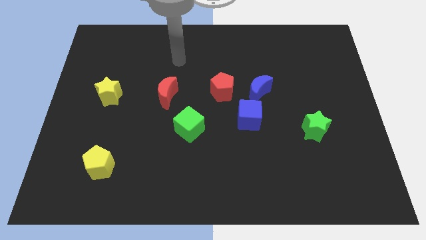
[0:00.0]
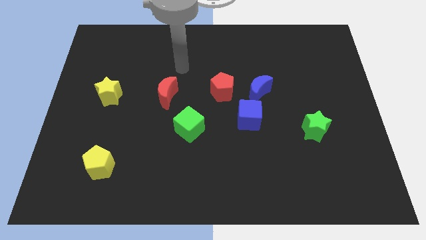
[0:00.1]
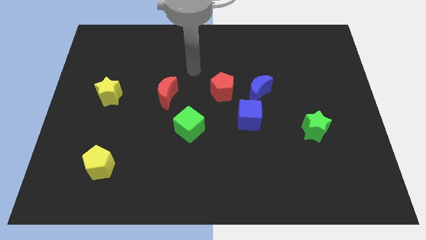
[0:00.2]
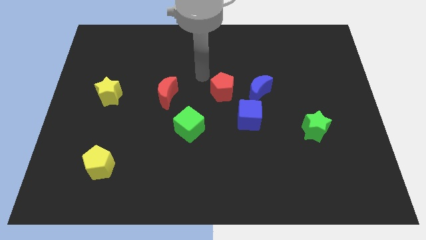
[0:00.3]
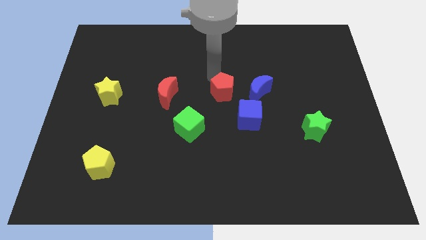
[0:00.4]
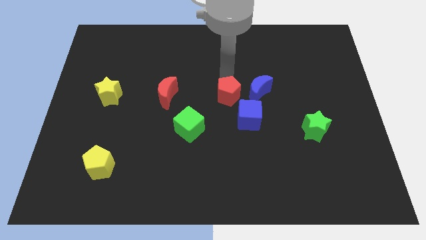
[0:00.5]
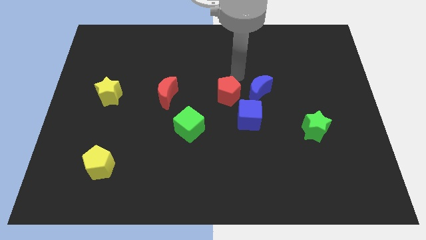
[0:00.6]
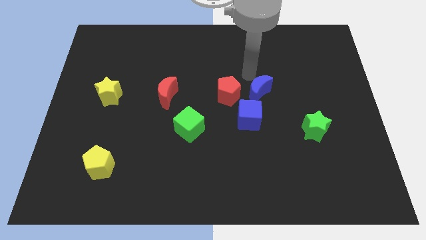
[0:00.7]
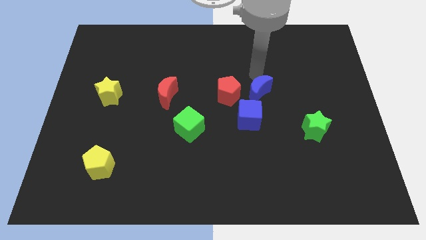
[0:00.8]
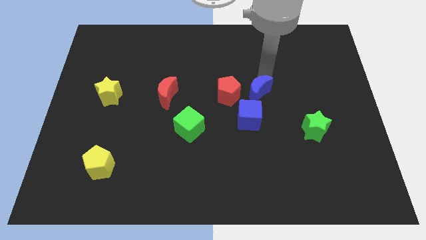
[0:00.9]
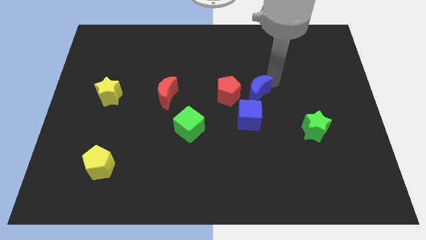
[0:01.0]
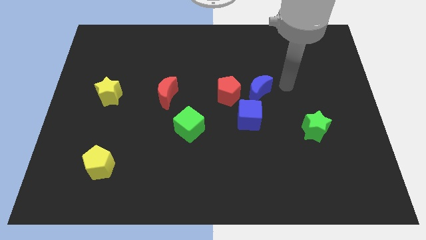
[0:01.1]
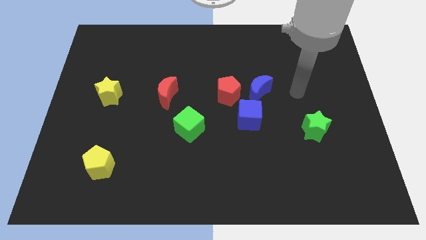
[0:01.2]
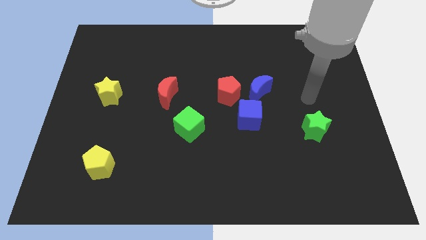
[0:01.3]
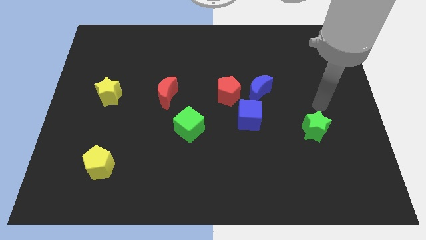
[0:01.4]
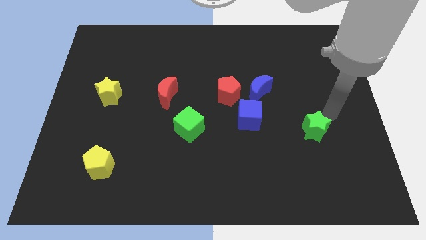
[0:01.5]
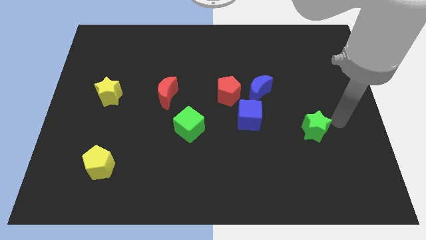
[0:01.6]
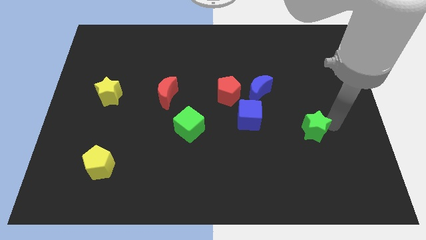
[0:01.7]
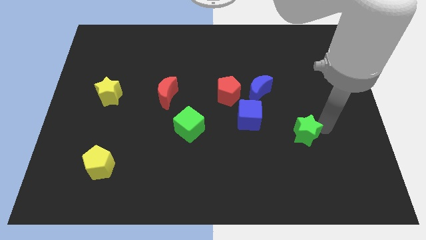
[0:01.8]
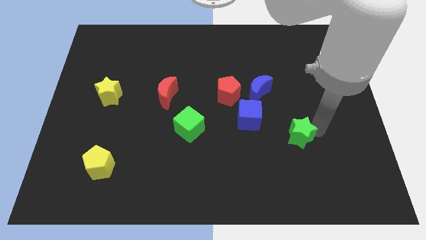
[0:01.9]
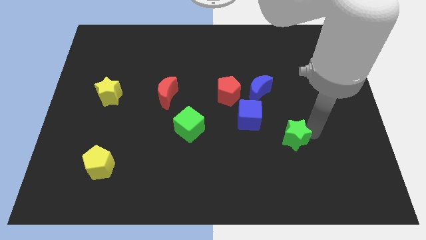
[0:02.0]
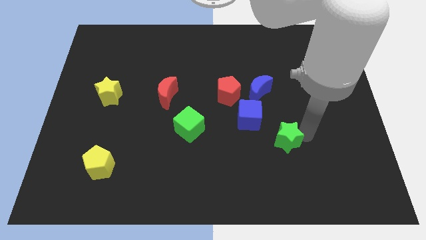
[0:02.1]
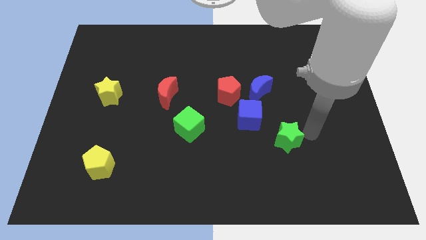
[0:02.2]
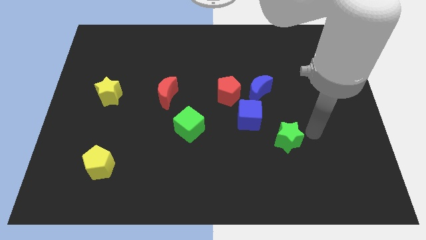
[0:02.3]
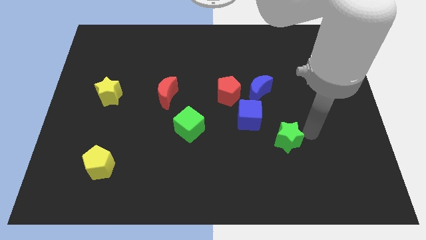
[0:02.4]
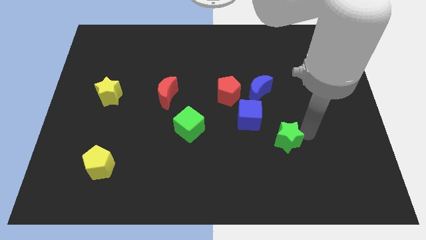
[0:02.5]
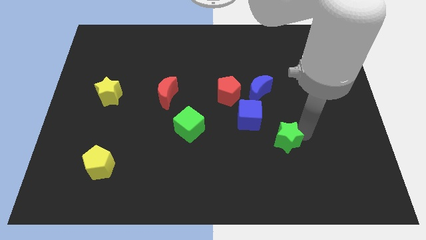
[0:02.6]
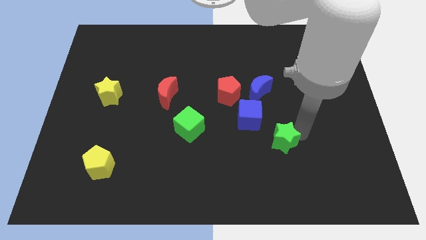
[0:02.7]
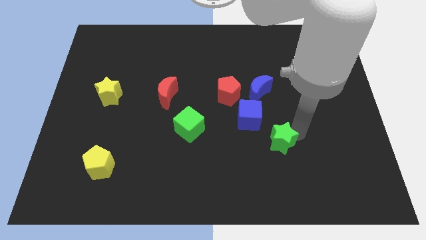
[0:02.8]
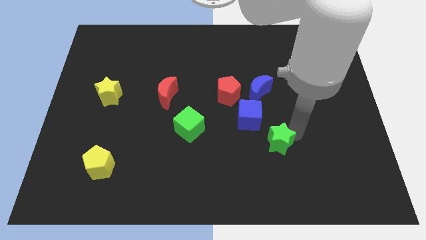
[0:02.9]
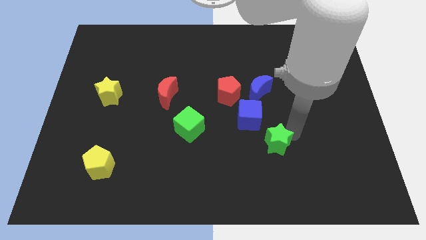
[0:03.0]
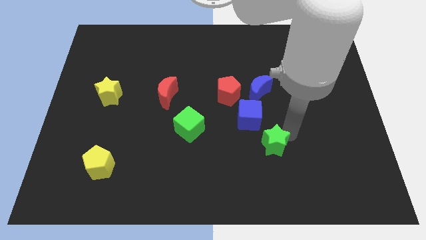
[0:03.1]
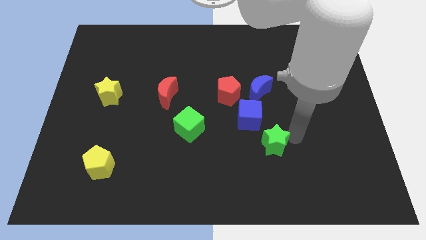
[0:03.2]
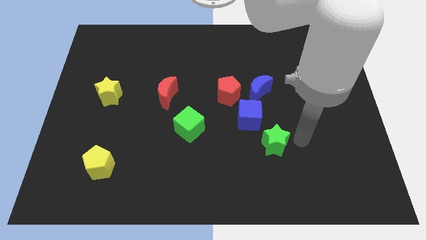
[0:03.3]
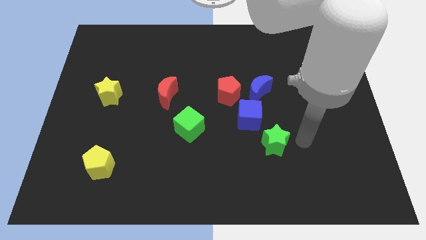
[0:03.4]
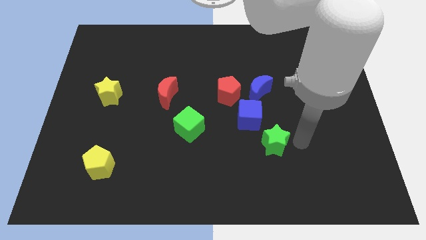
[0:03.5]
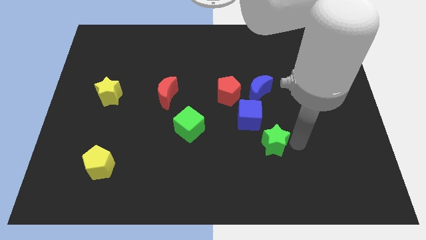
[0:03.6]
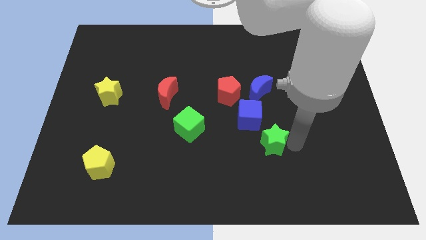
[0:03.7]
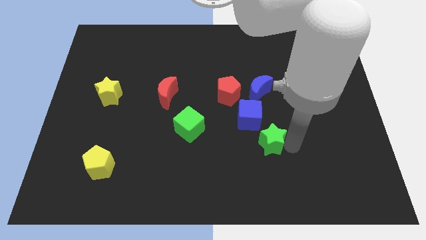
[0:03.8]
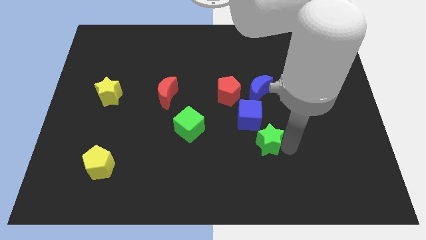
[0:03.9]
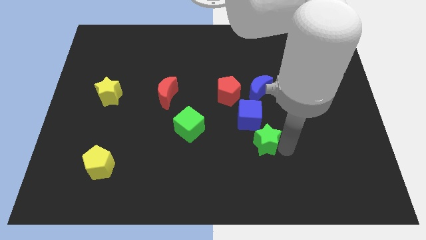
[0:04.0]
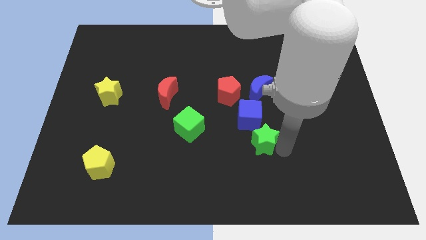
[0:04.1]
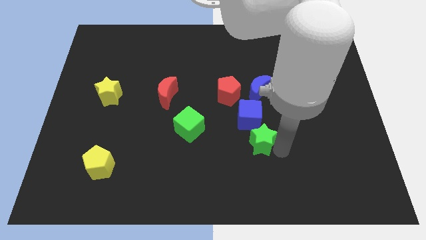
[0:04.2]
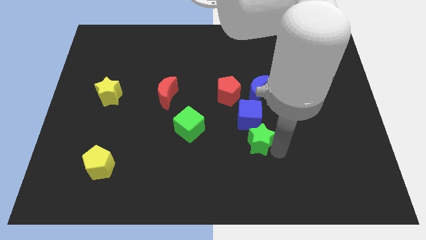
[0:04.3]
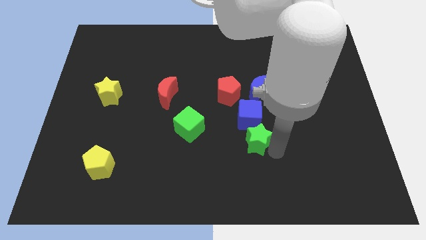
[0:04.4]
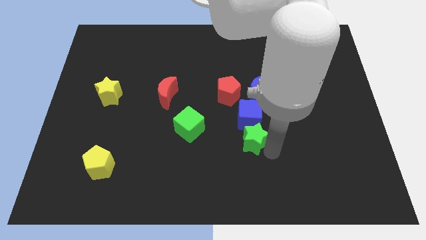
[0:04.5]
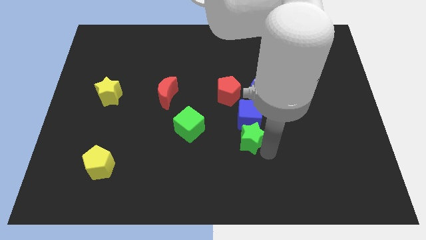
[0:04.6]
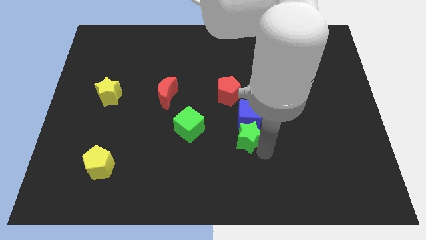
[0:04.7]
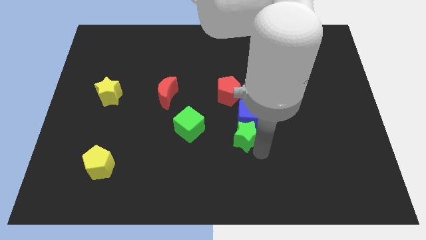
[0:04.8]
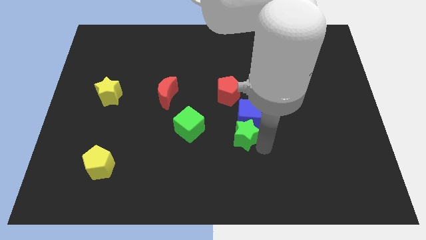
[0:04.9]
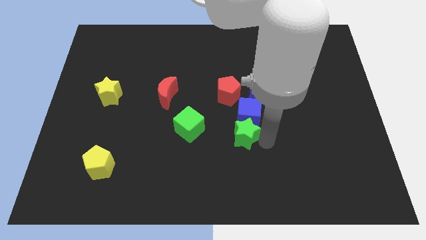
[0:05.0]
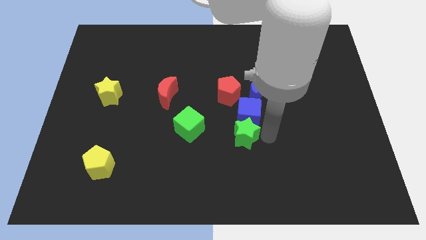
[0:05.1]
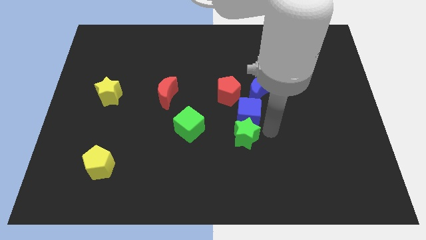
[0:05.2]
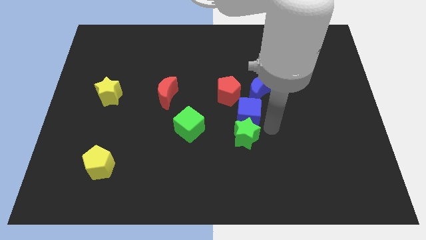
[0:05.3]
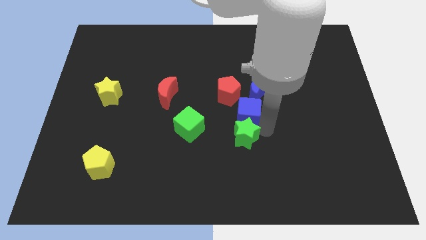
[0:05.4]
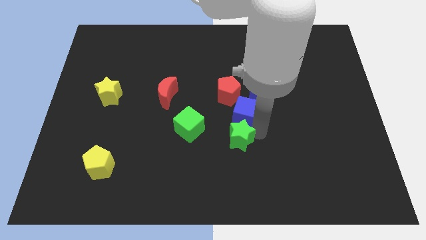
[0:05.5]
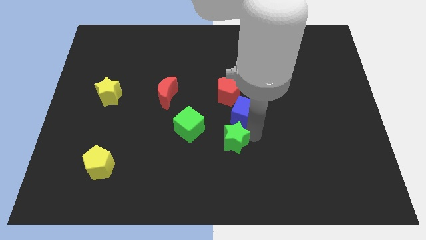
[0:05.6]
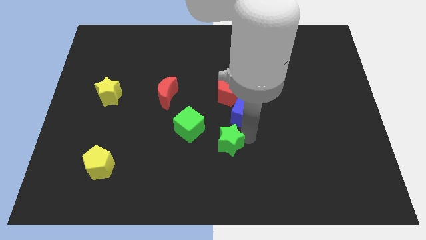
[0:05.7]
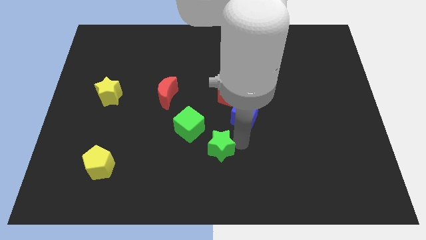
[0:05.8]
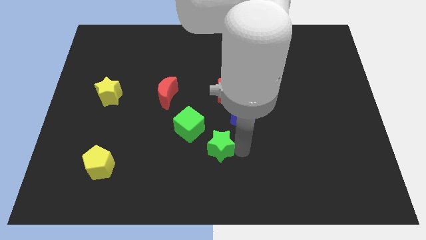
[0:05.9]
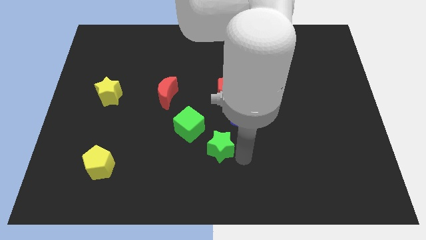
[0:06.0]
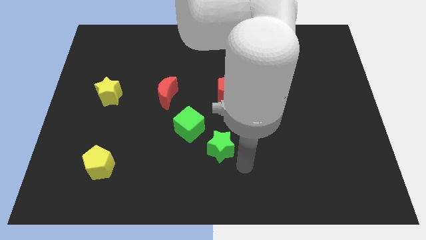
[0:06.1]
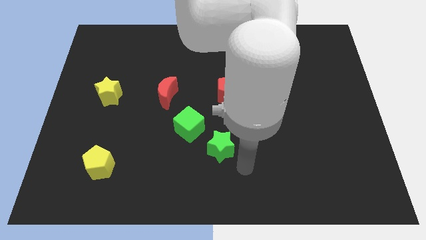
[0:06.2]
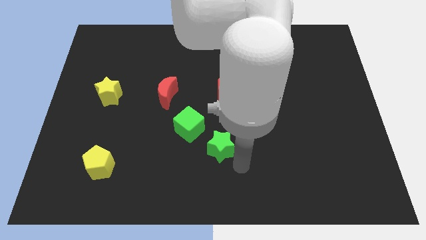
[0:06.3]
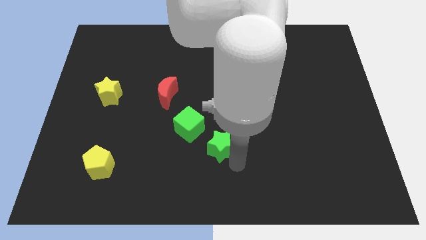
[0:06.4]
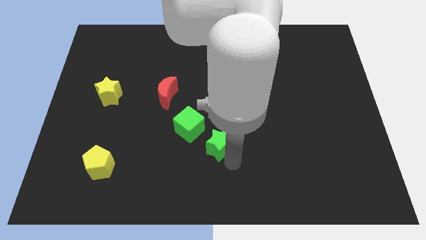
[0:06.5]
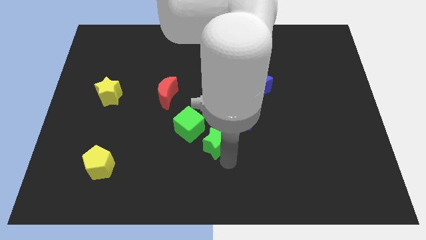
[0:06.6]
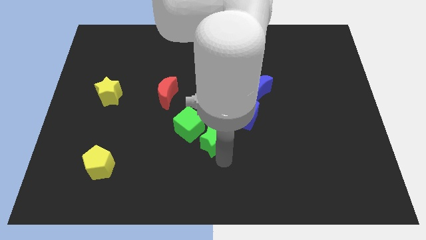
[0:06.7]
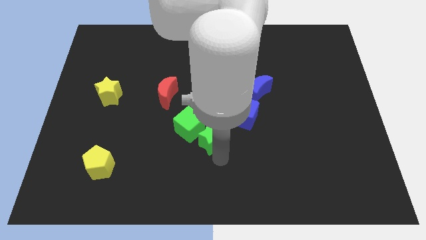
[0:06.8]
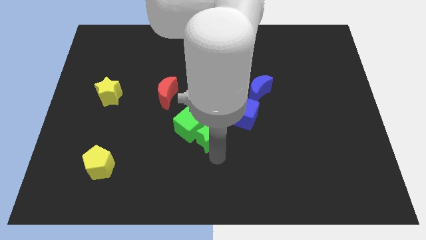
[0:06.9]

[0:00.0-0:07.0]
move the green star next to the green cube

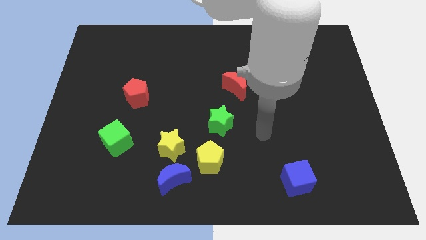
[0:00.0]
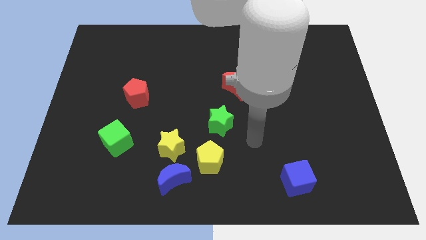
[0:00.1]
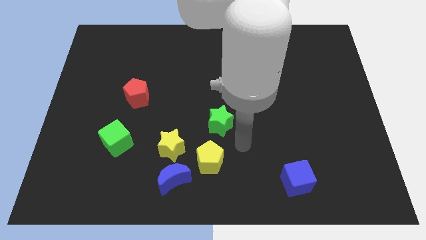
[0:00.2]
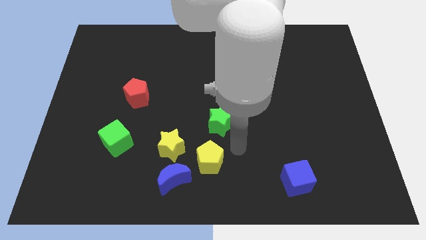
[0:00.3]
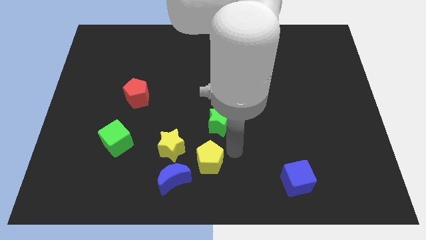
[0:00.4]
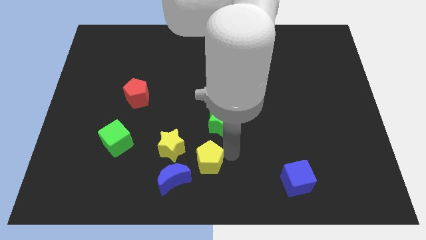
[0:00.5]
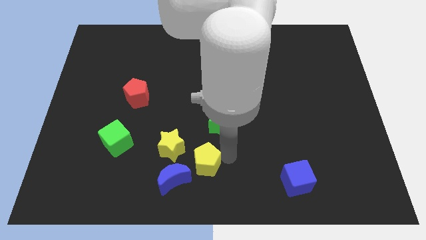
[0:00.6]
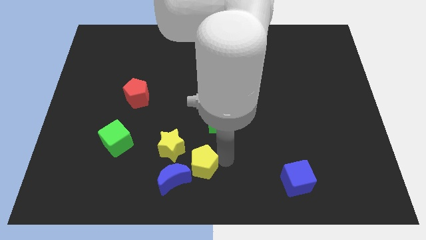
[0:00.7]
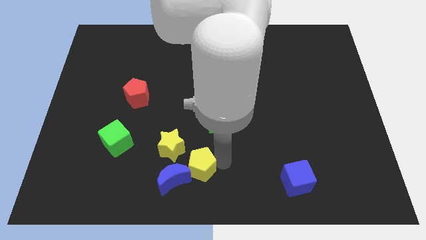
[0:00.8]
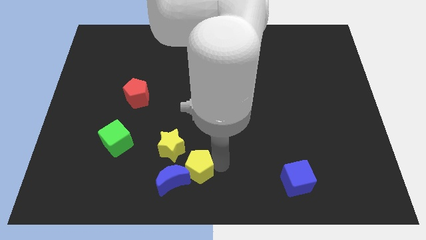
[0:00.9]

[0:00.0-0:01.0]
move the yellow pentagon to the blue moon
